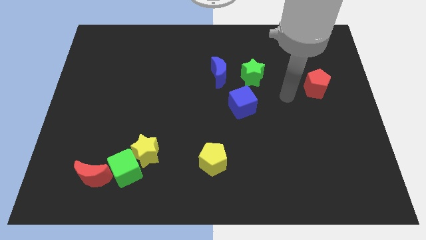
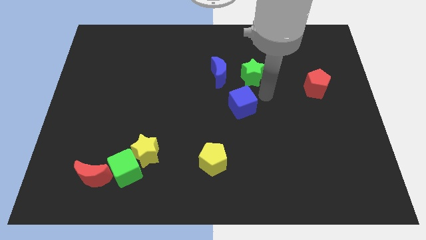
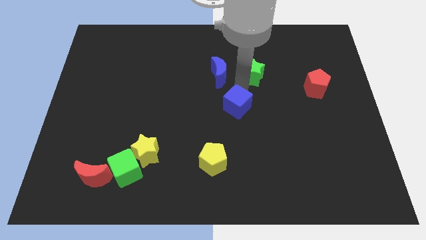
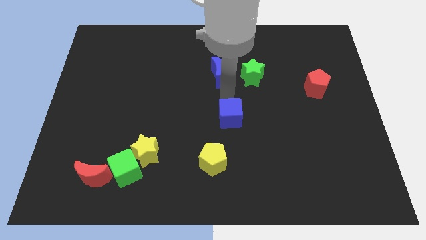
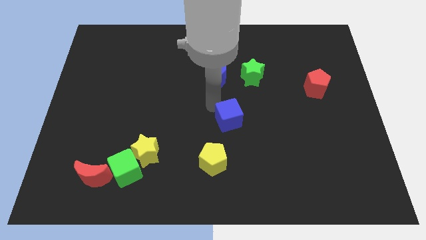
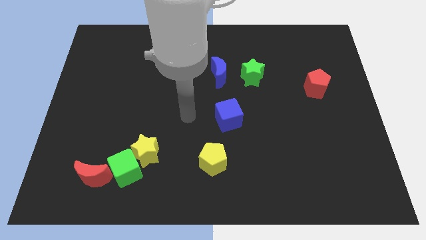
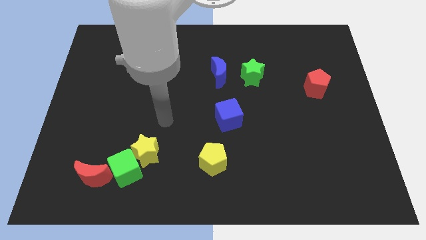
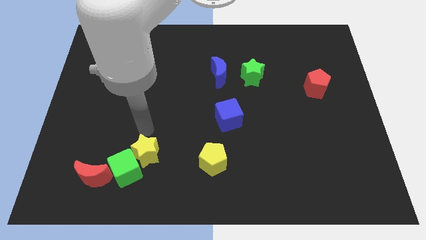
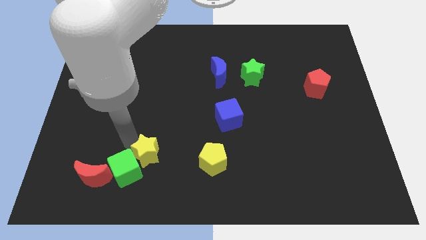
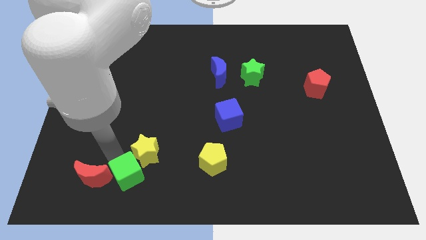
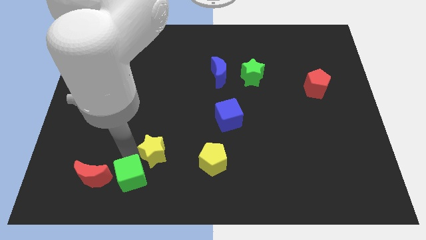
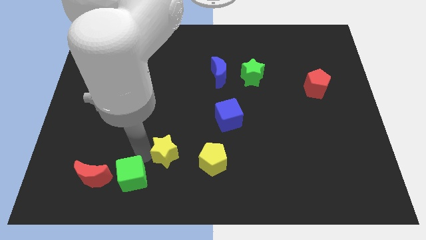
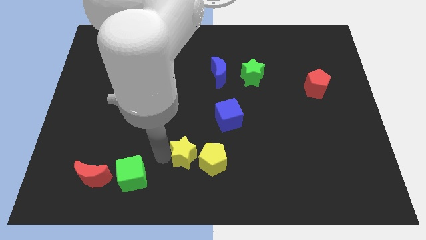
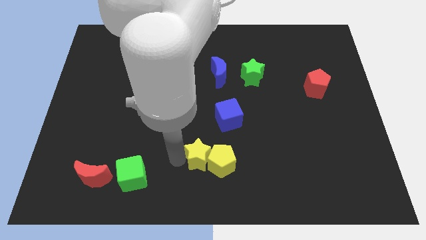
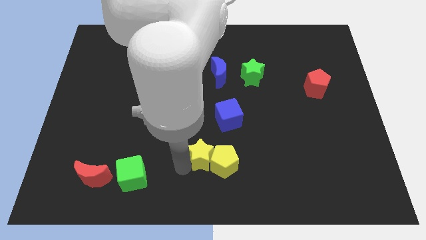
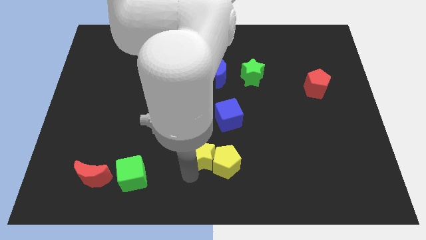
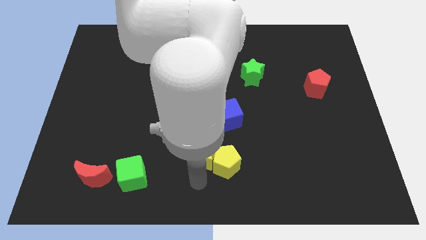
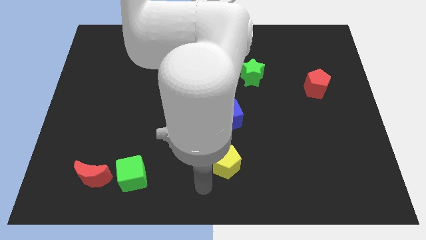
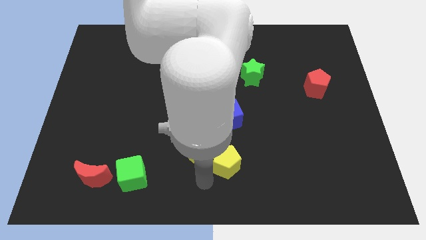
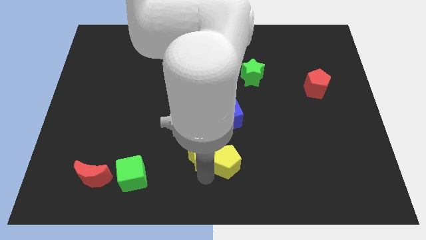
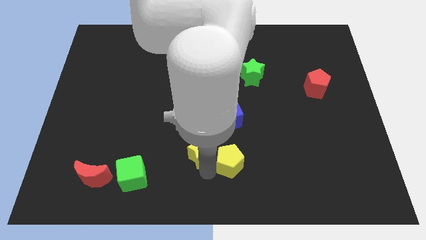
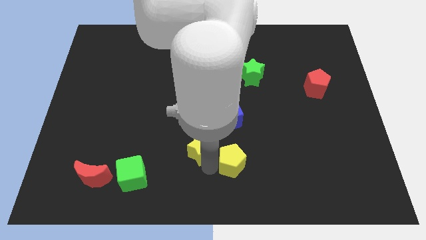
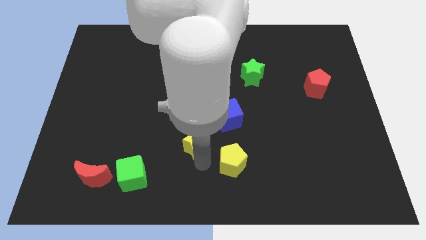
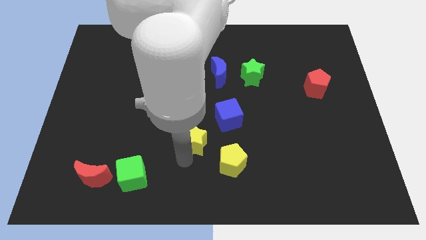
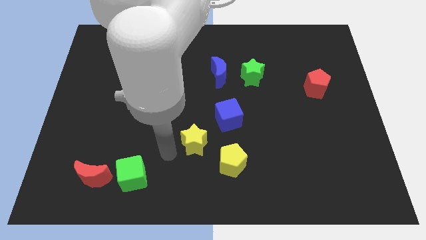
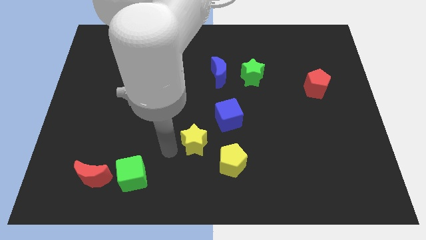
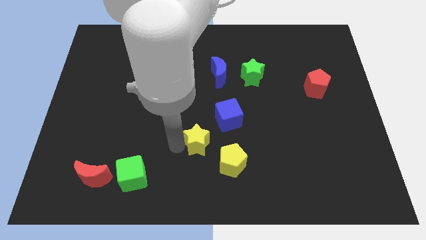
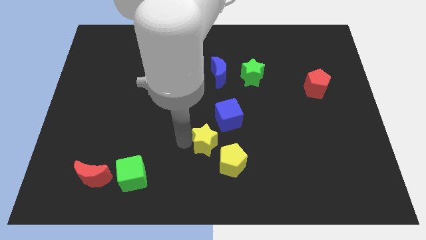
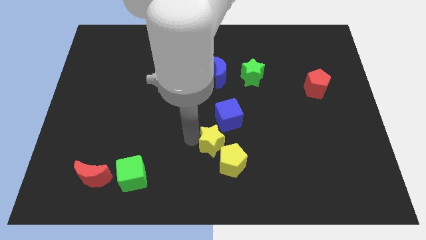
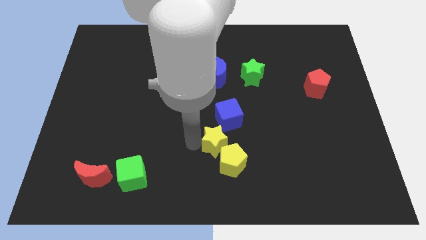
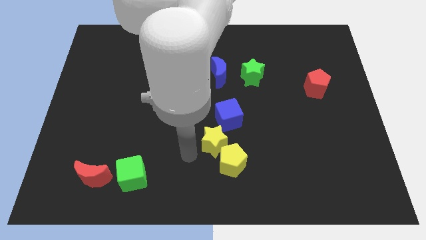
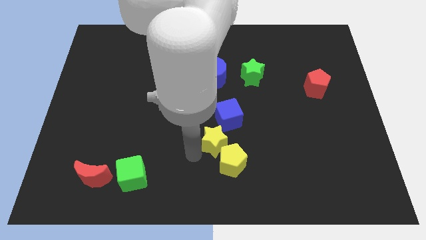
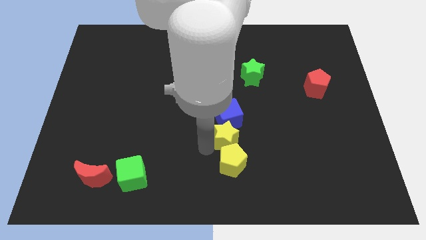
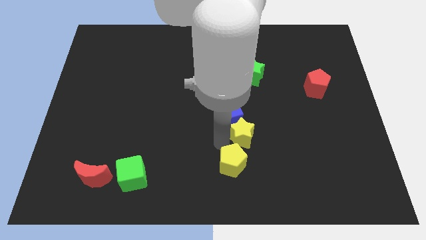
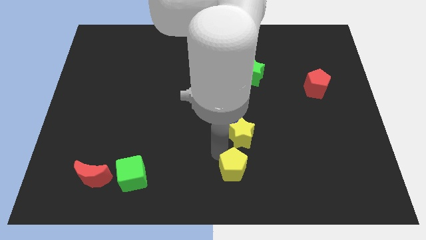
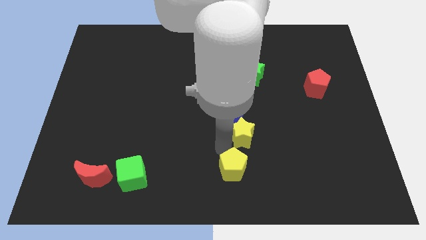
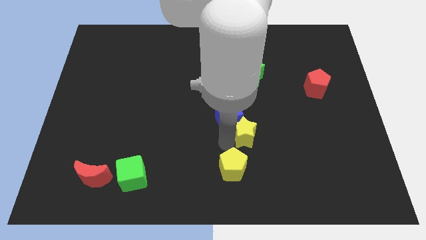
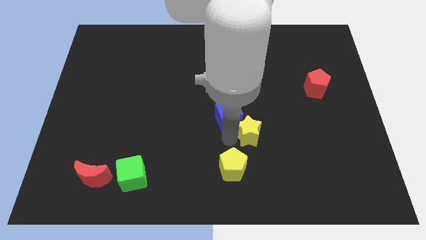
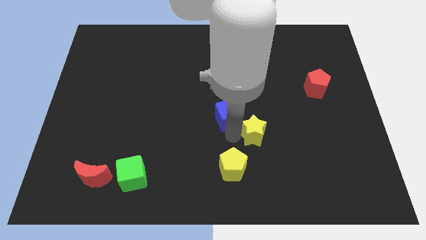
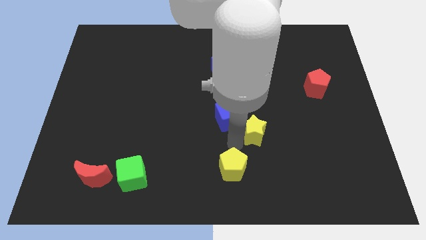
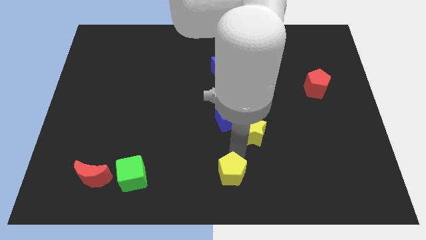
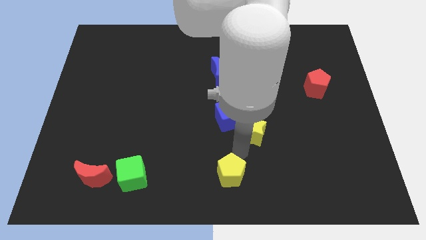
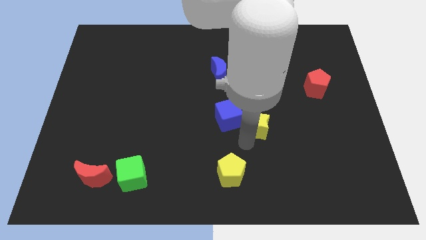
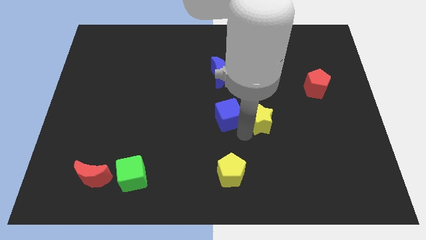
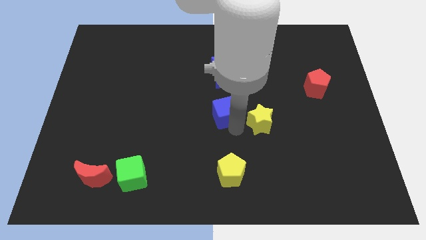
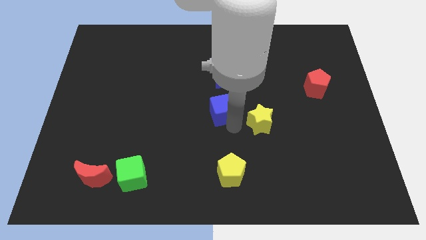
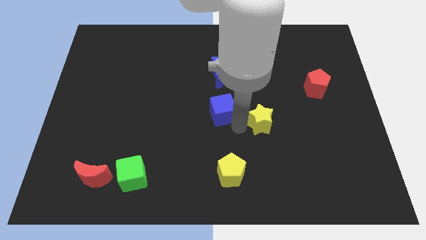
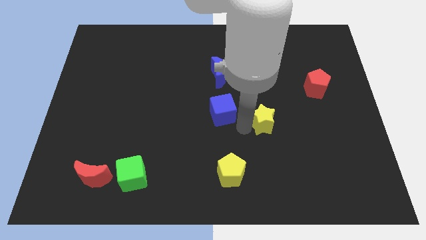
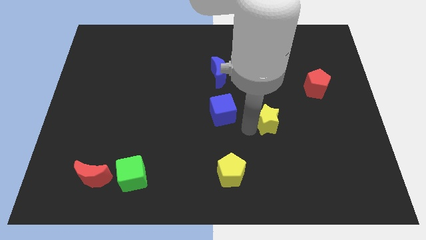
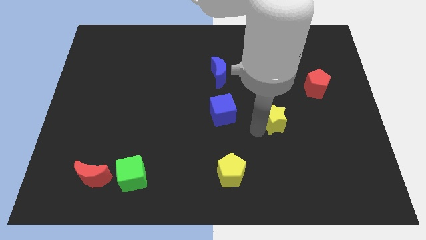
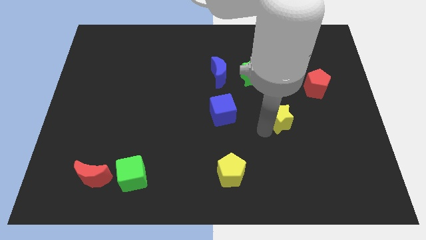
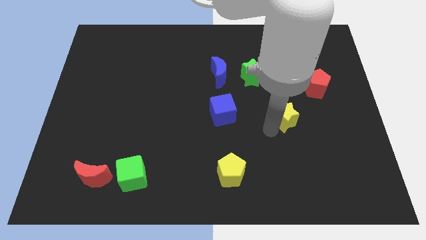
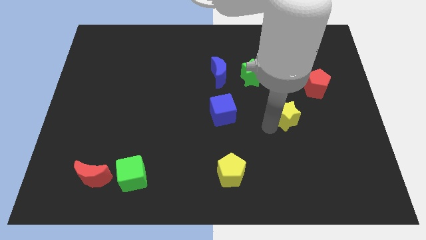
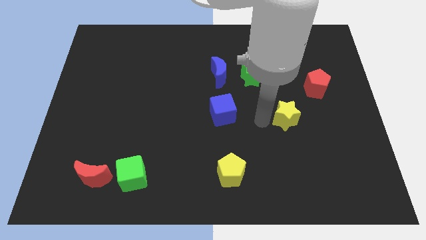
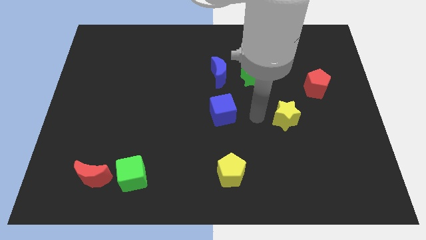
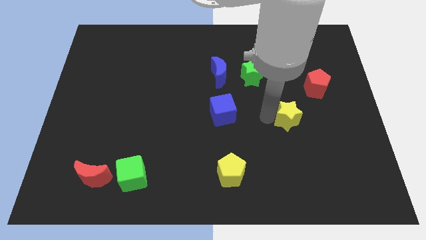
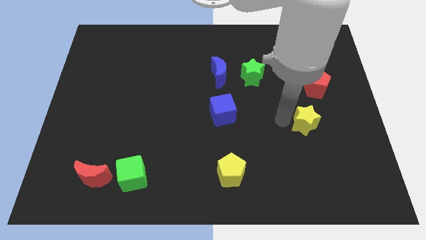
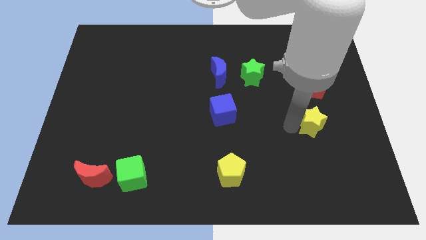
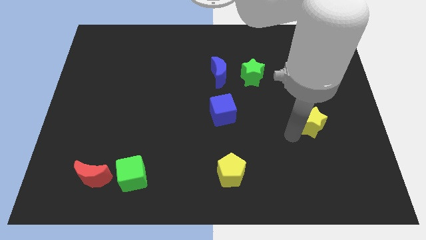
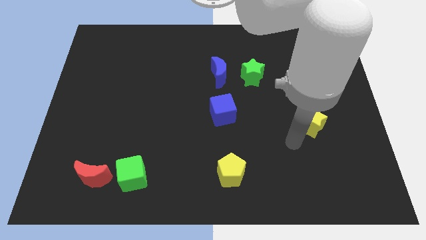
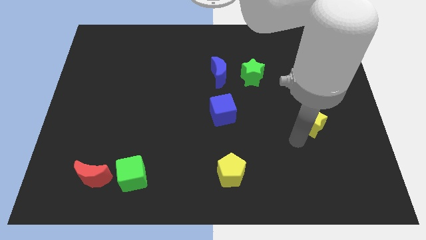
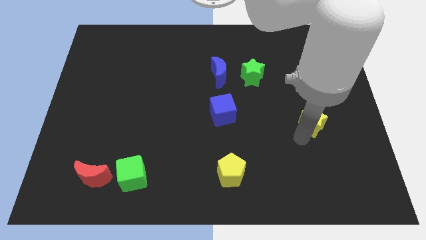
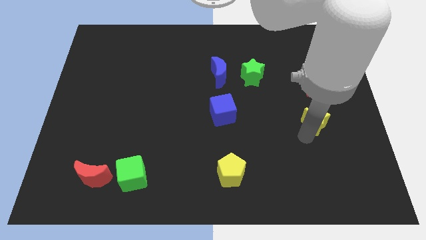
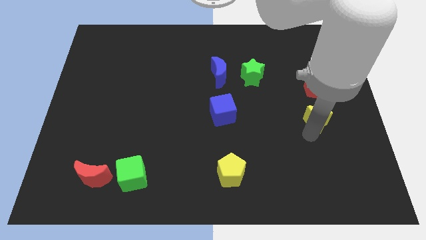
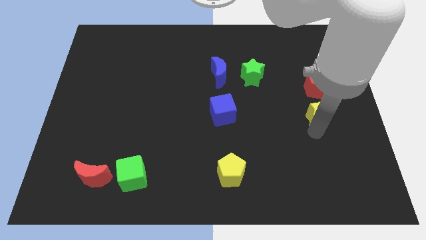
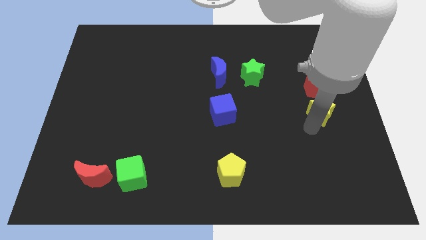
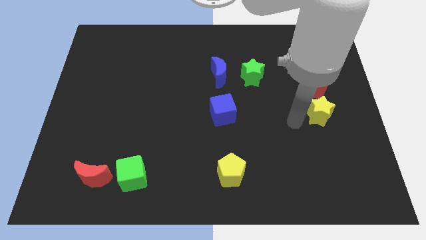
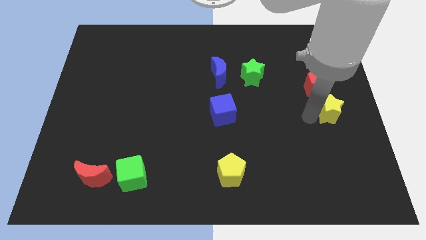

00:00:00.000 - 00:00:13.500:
move the yellow star to the right side of the board
